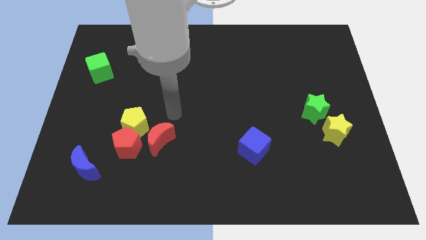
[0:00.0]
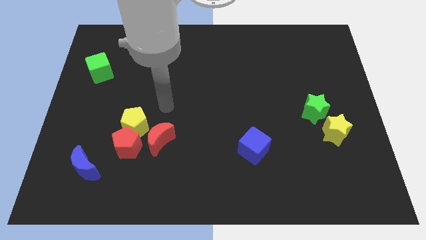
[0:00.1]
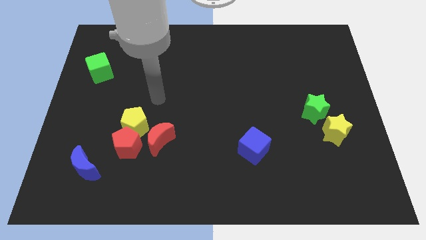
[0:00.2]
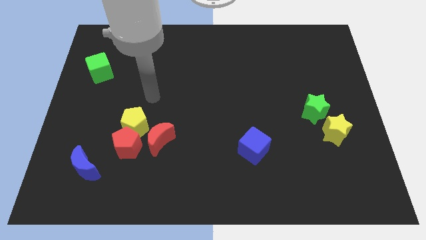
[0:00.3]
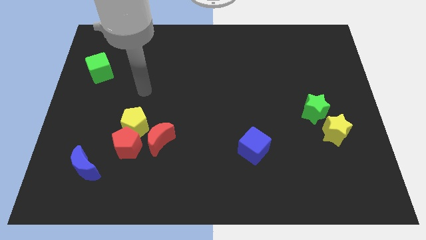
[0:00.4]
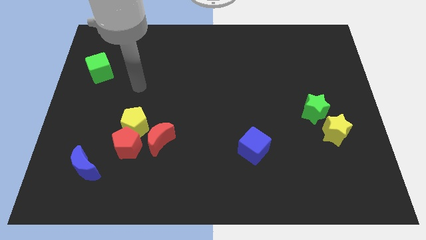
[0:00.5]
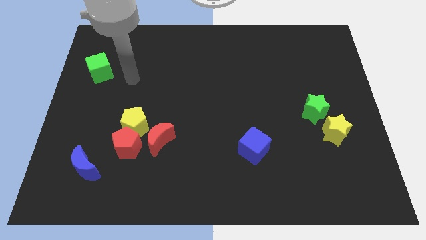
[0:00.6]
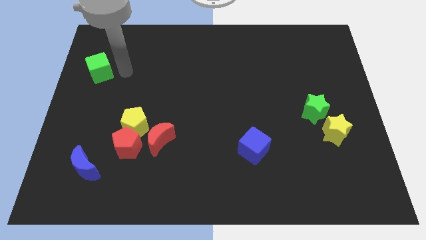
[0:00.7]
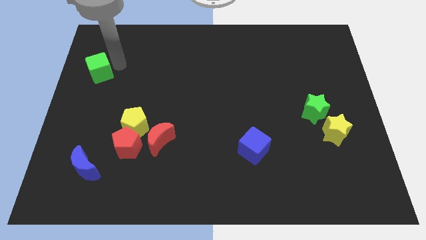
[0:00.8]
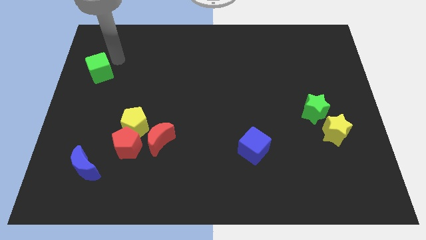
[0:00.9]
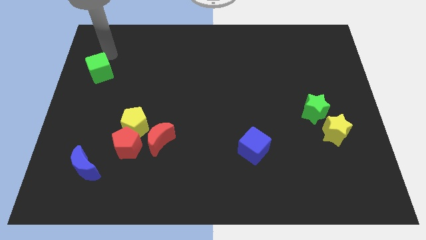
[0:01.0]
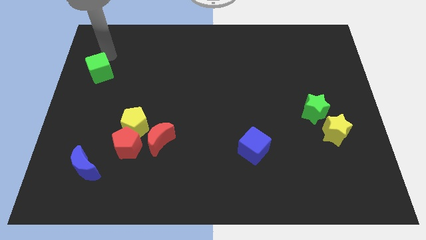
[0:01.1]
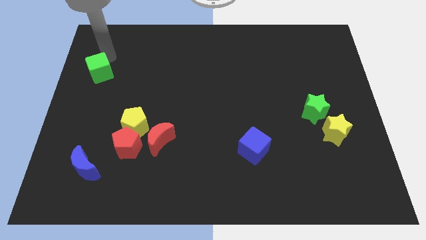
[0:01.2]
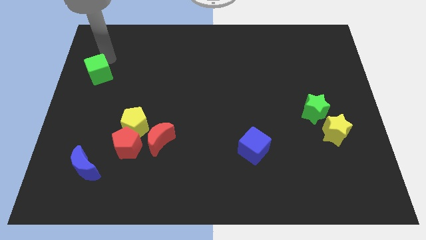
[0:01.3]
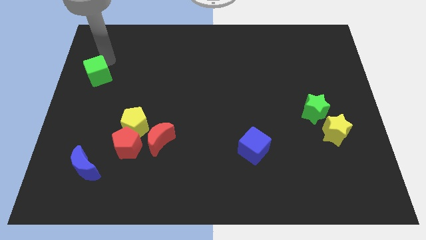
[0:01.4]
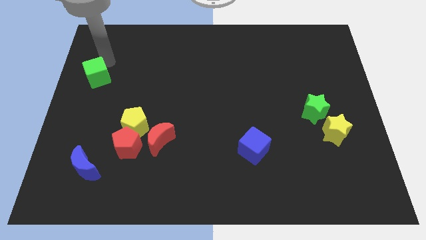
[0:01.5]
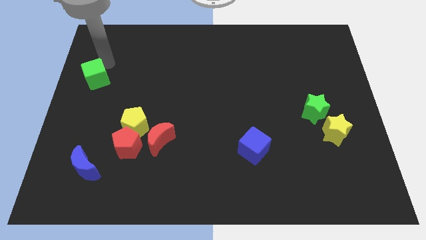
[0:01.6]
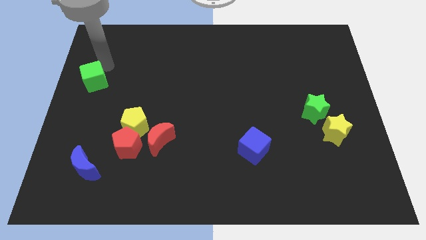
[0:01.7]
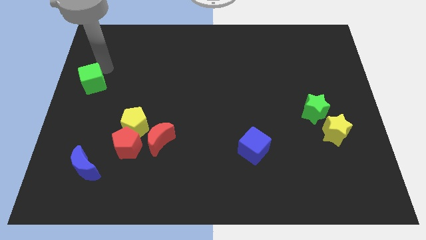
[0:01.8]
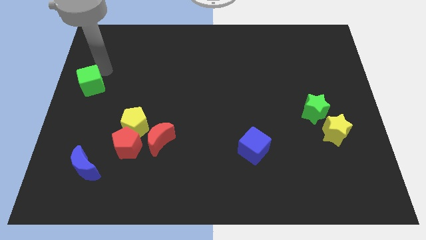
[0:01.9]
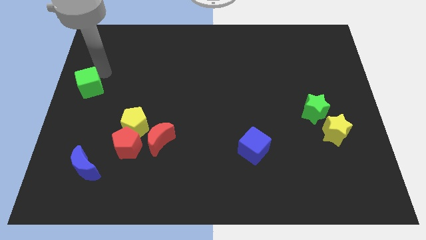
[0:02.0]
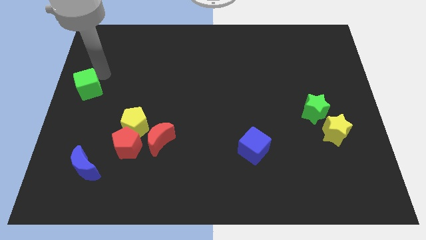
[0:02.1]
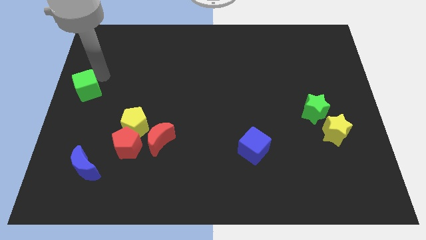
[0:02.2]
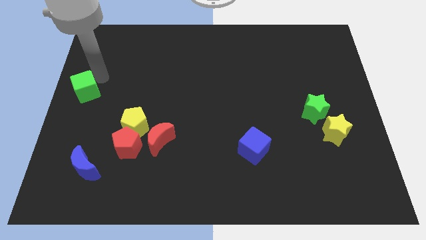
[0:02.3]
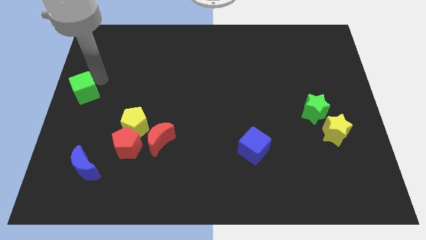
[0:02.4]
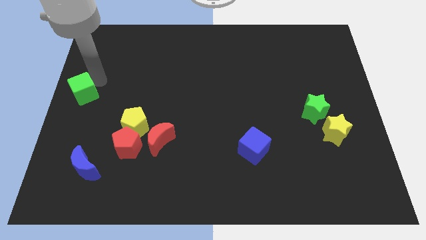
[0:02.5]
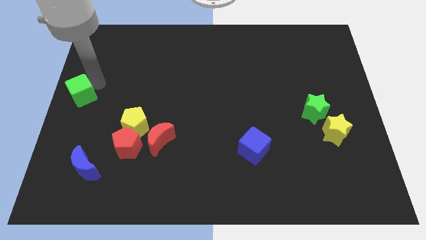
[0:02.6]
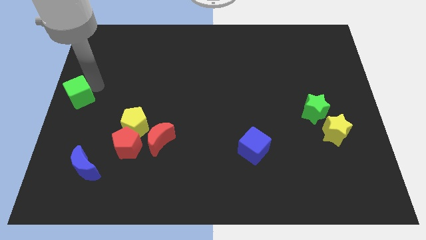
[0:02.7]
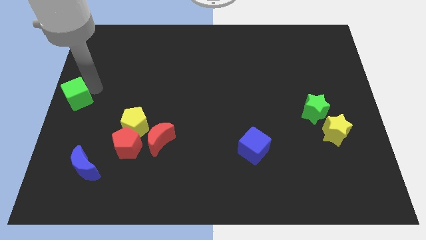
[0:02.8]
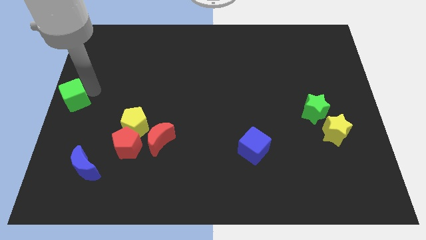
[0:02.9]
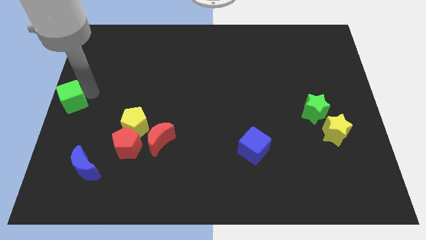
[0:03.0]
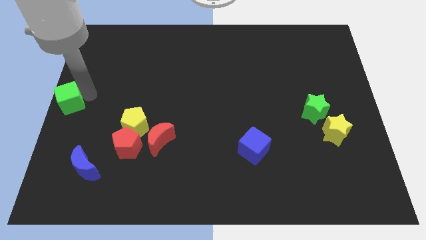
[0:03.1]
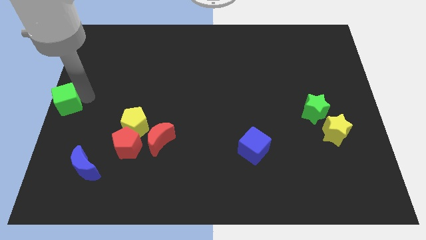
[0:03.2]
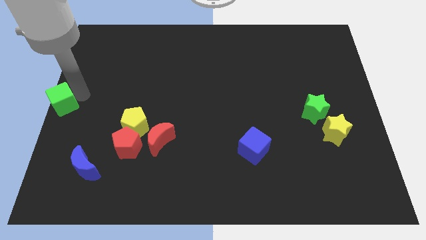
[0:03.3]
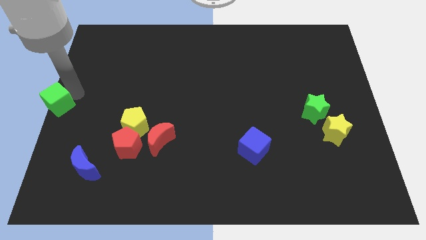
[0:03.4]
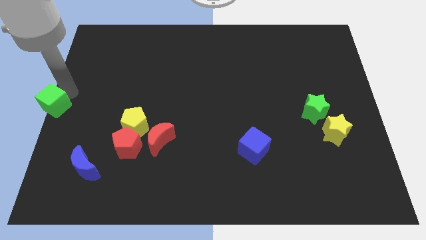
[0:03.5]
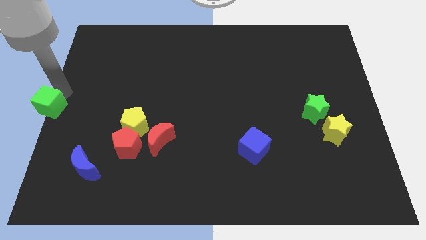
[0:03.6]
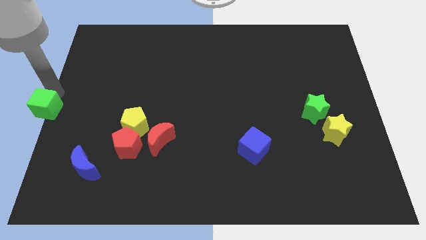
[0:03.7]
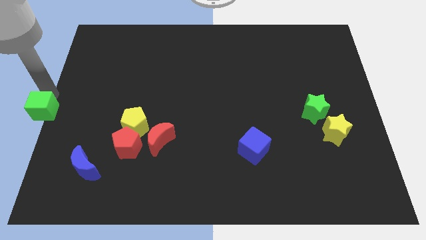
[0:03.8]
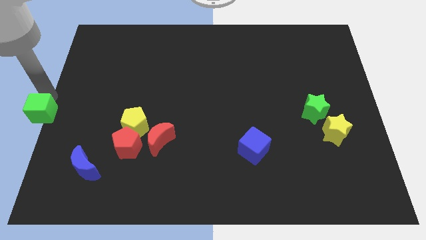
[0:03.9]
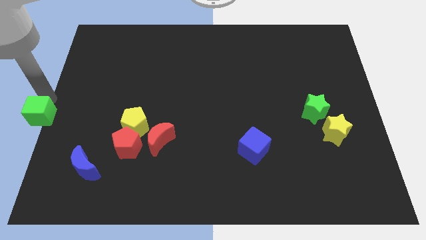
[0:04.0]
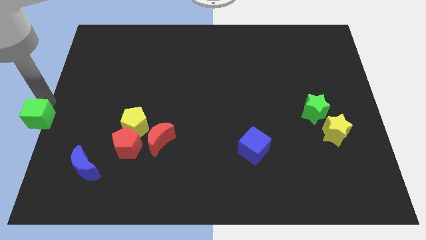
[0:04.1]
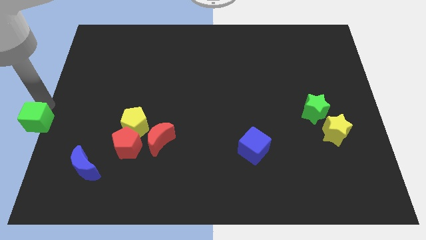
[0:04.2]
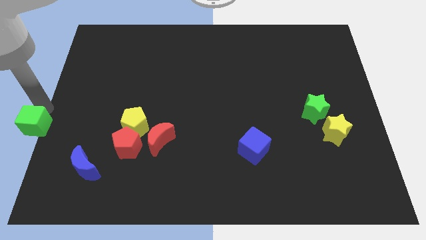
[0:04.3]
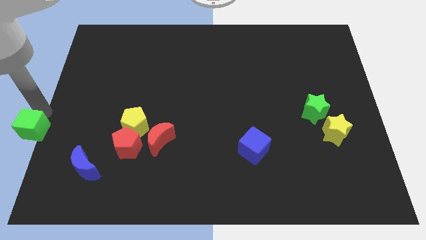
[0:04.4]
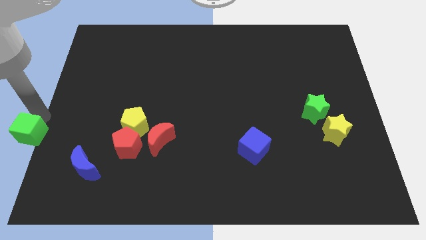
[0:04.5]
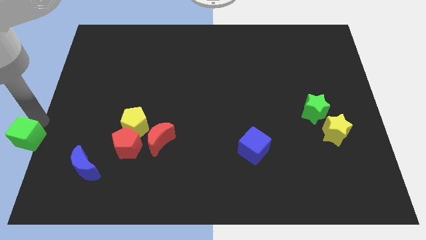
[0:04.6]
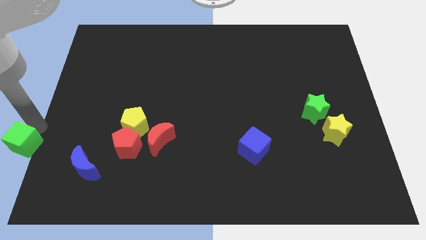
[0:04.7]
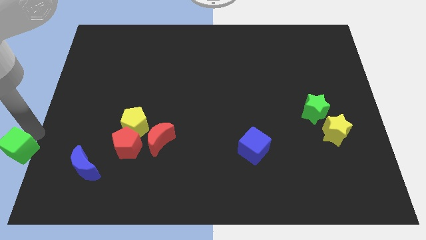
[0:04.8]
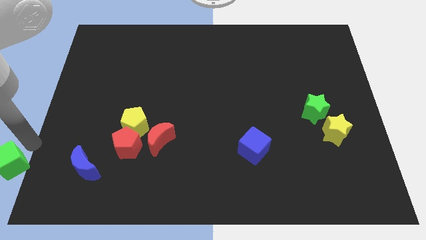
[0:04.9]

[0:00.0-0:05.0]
slide the green cube to the bottom left of the board

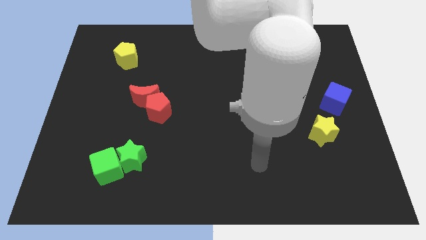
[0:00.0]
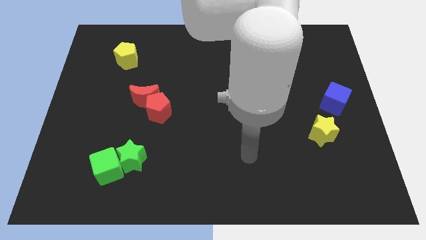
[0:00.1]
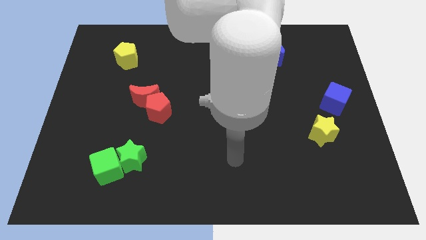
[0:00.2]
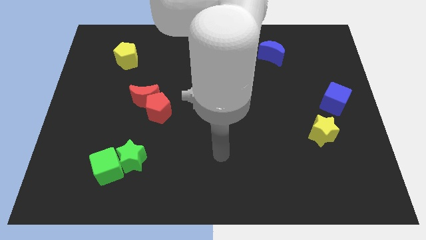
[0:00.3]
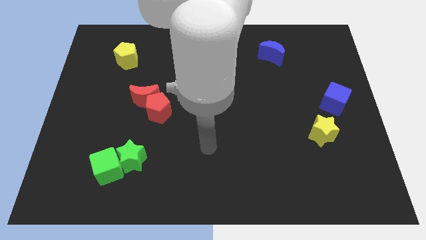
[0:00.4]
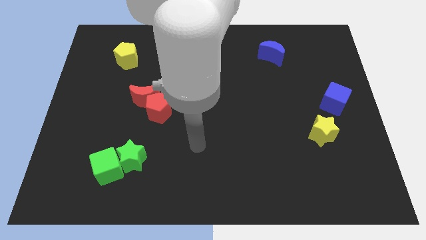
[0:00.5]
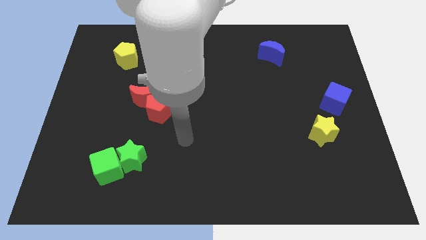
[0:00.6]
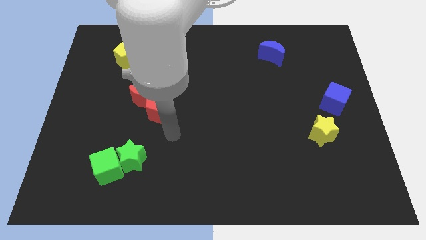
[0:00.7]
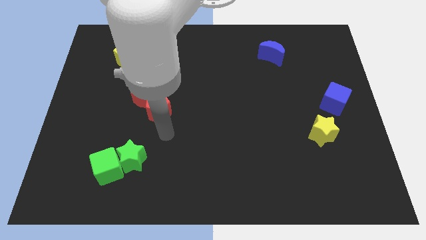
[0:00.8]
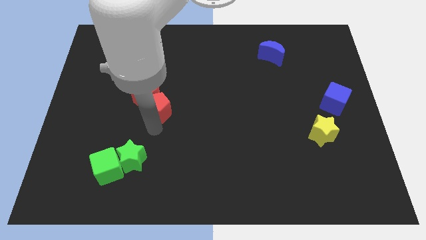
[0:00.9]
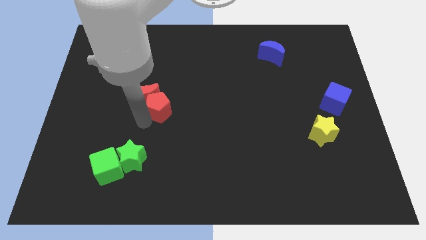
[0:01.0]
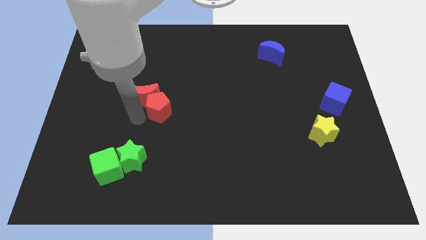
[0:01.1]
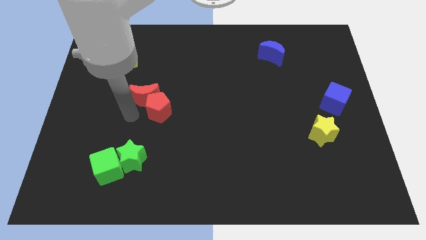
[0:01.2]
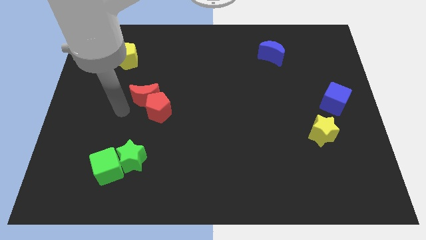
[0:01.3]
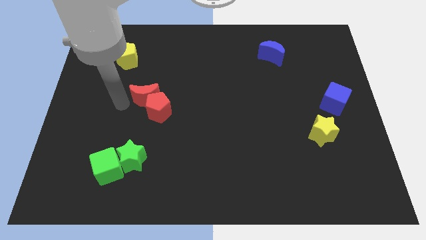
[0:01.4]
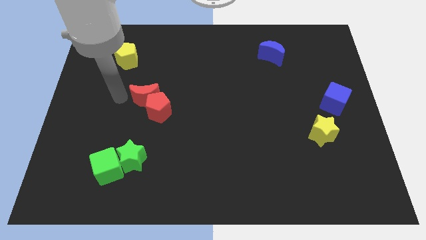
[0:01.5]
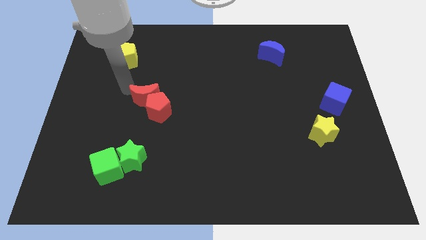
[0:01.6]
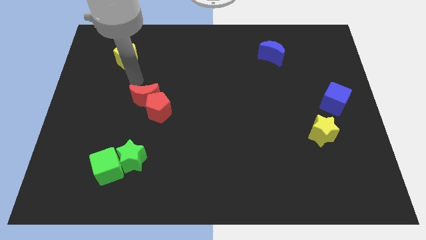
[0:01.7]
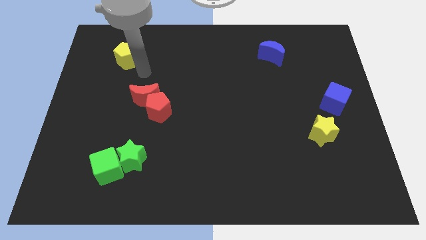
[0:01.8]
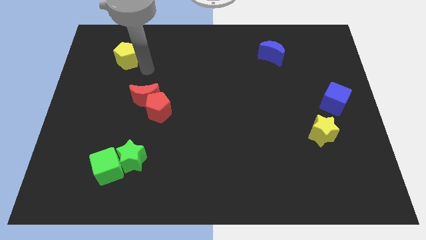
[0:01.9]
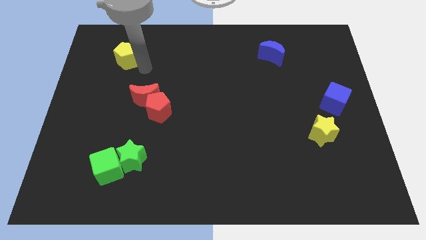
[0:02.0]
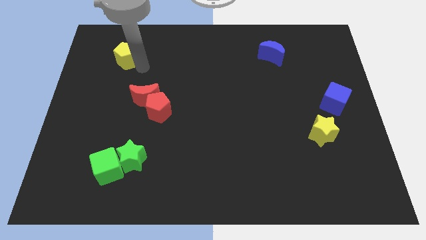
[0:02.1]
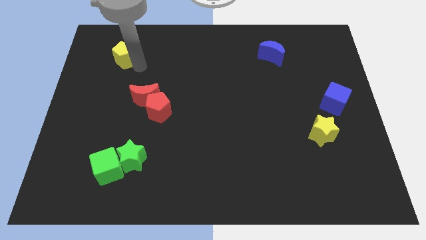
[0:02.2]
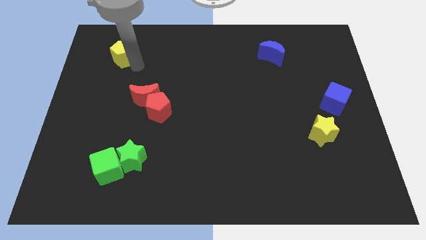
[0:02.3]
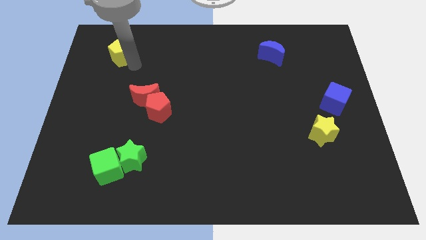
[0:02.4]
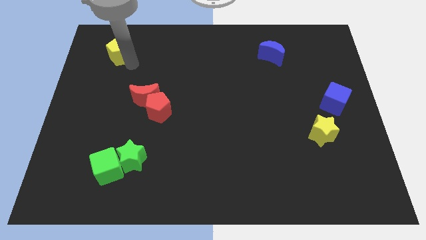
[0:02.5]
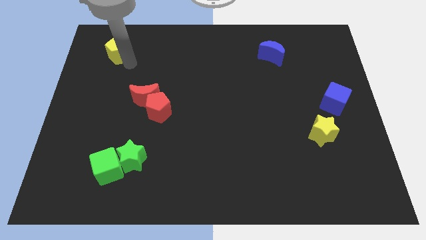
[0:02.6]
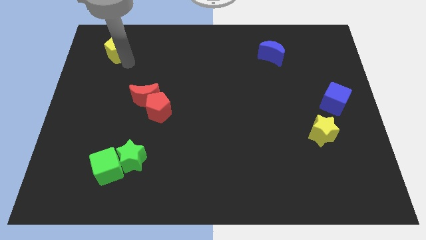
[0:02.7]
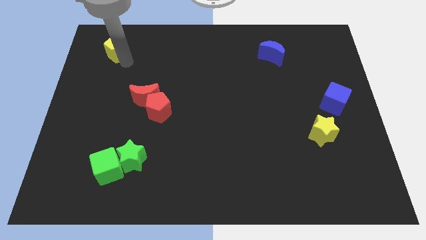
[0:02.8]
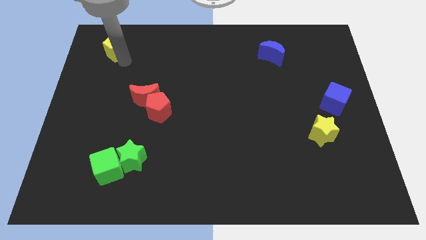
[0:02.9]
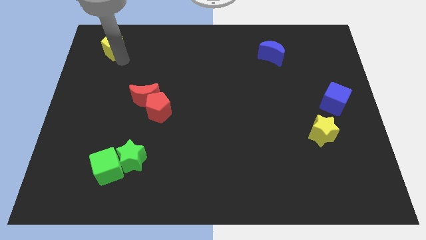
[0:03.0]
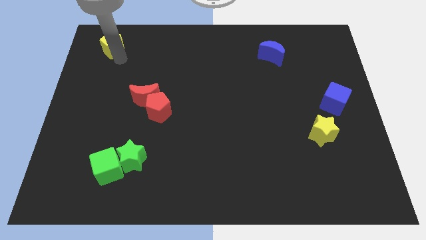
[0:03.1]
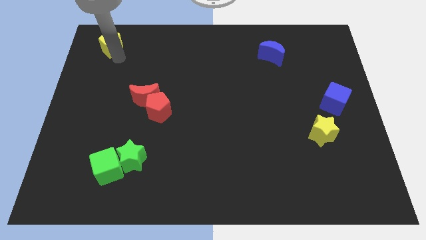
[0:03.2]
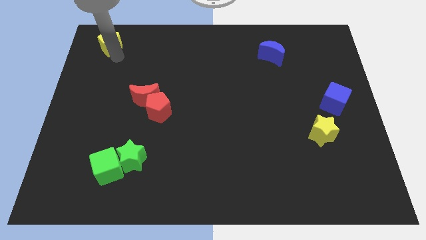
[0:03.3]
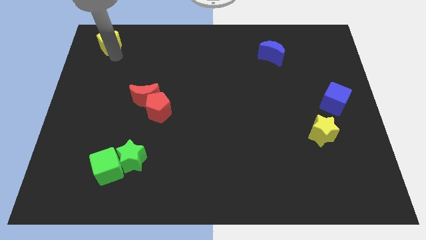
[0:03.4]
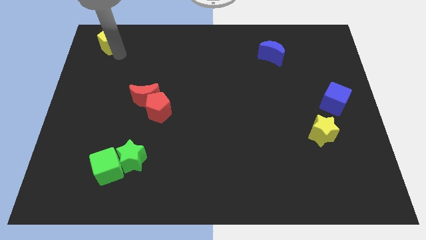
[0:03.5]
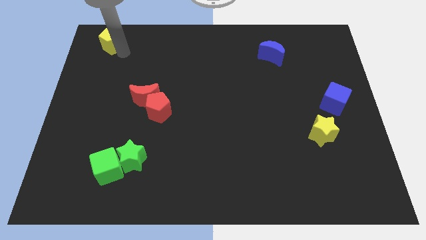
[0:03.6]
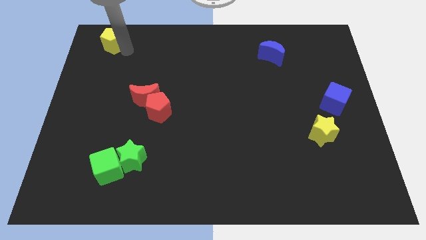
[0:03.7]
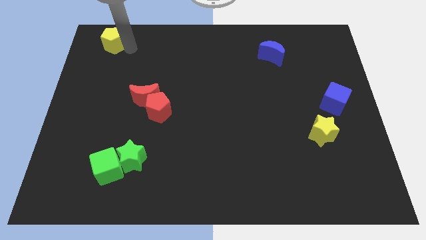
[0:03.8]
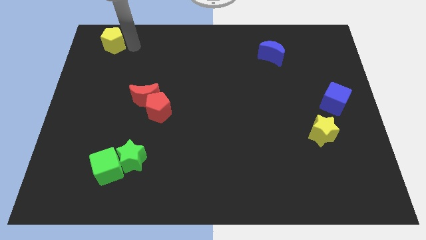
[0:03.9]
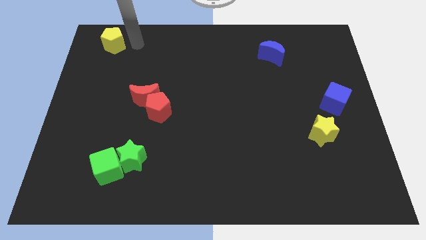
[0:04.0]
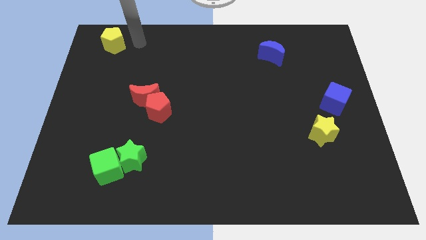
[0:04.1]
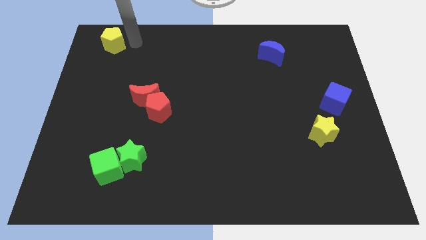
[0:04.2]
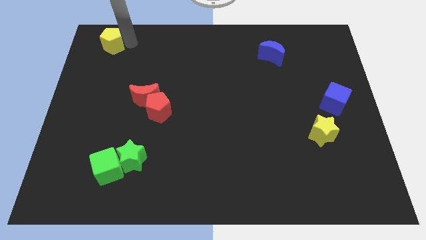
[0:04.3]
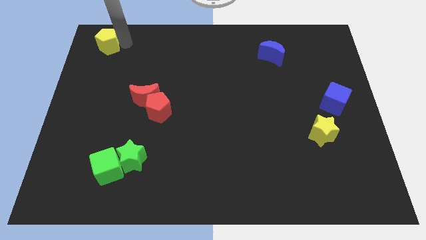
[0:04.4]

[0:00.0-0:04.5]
move the yellow pentagon to the top left
